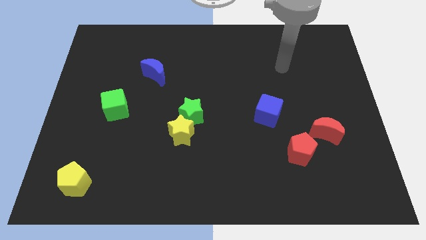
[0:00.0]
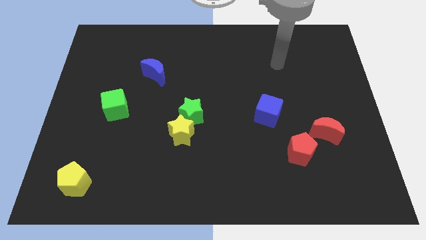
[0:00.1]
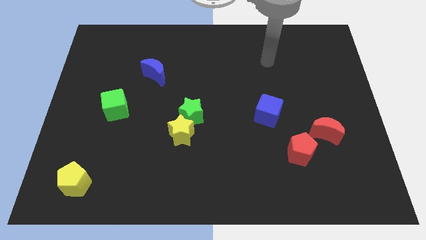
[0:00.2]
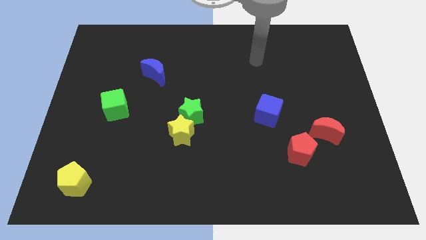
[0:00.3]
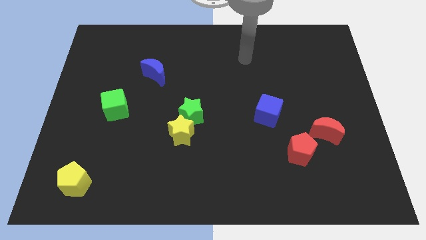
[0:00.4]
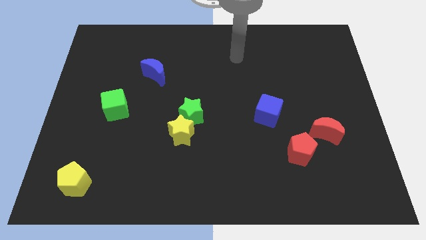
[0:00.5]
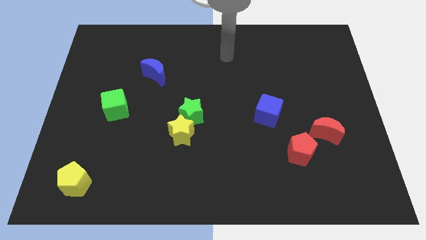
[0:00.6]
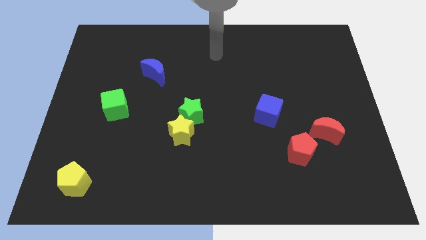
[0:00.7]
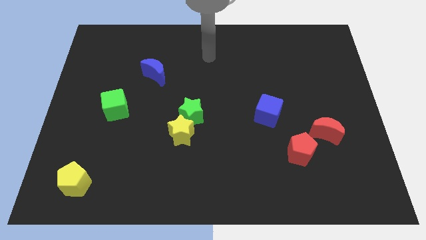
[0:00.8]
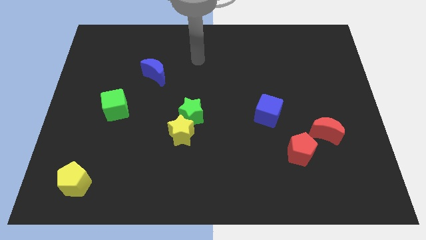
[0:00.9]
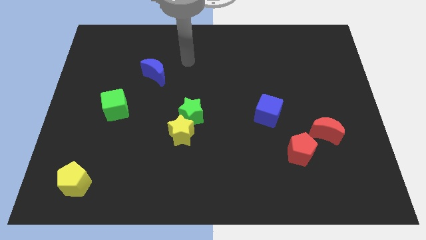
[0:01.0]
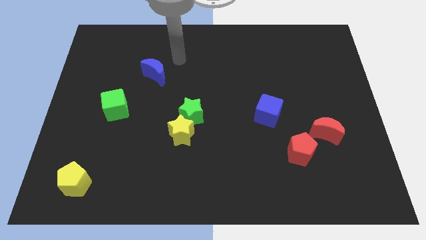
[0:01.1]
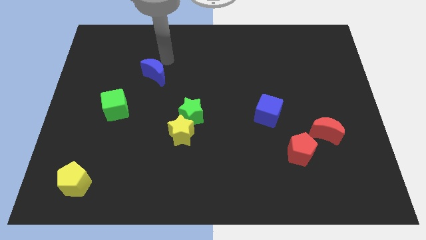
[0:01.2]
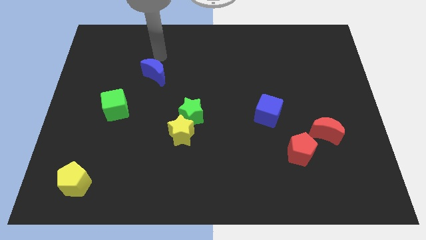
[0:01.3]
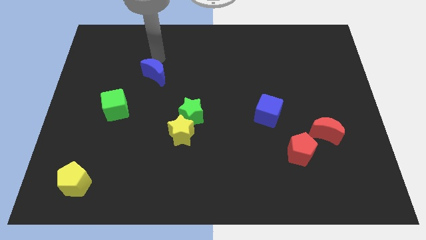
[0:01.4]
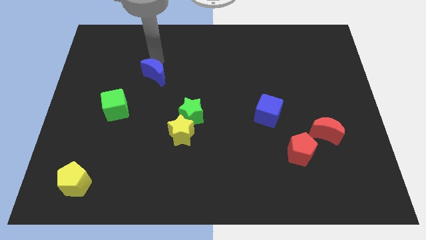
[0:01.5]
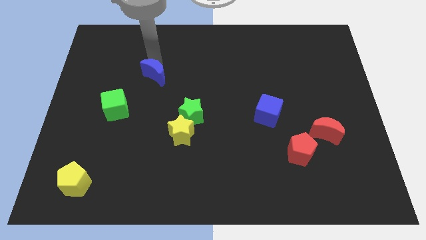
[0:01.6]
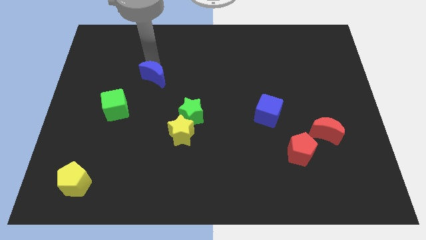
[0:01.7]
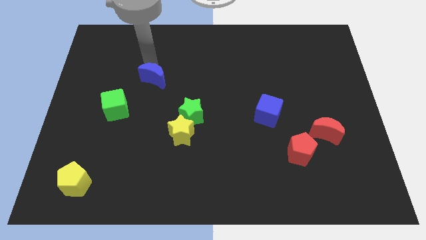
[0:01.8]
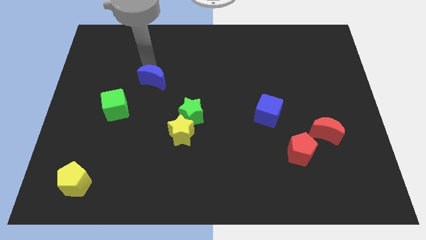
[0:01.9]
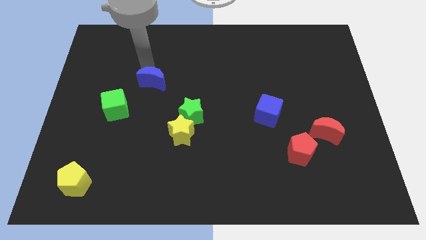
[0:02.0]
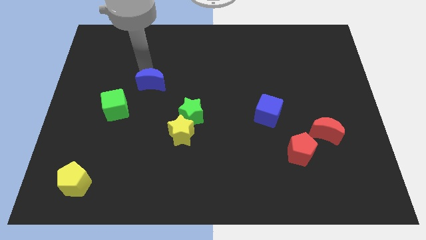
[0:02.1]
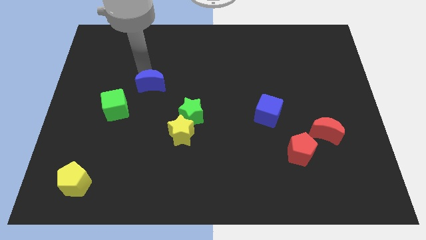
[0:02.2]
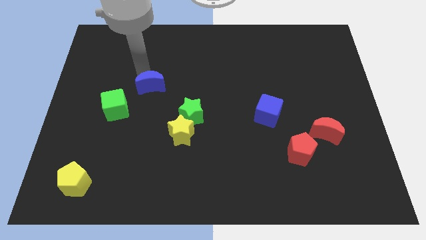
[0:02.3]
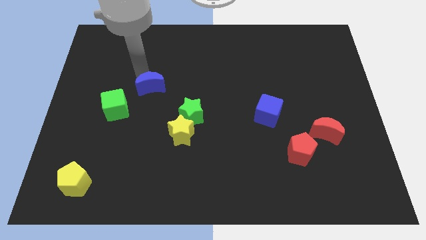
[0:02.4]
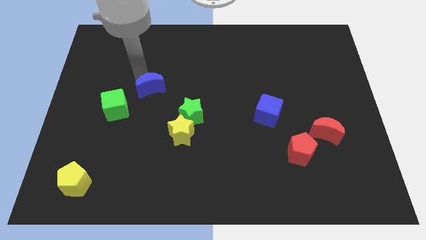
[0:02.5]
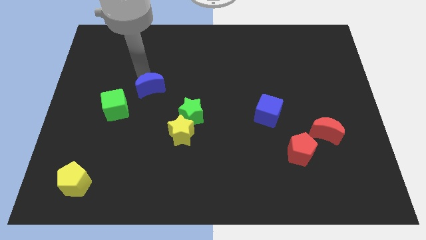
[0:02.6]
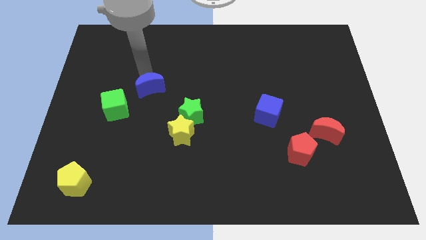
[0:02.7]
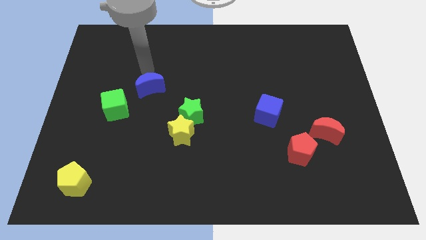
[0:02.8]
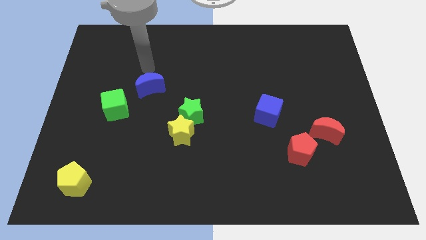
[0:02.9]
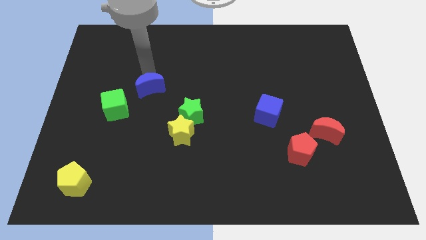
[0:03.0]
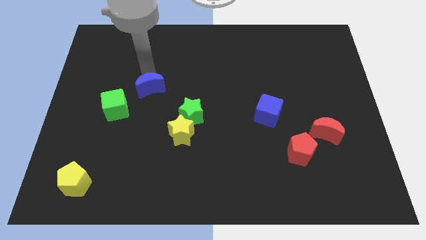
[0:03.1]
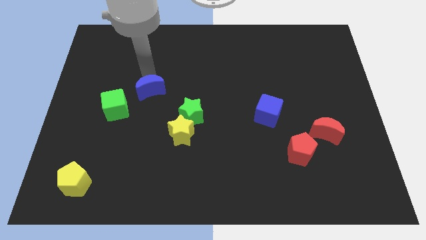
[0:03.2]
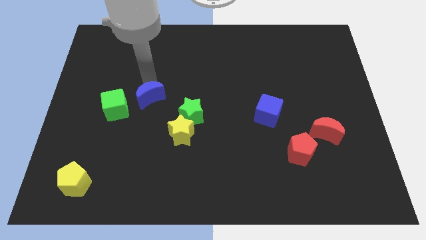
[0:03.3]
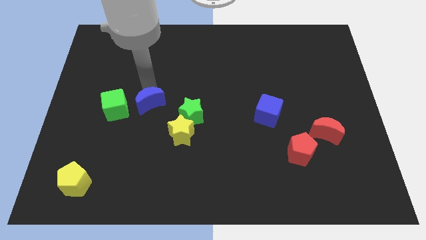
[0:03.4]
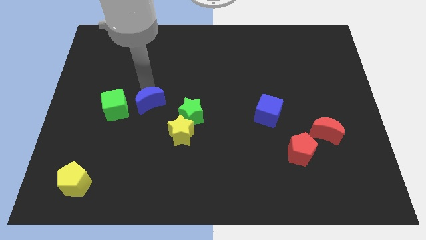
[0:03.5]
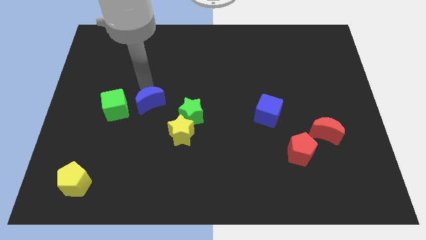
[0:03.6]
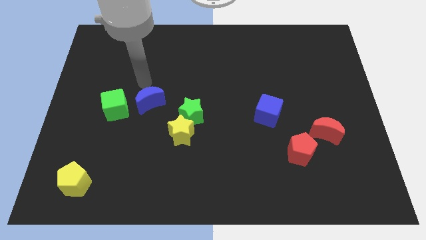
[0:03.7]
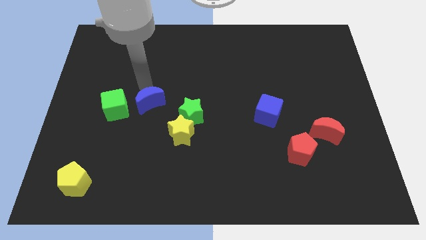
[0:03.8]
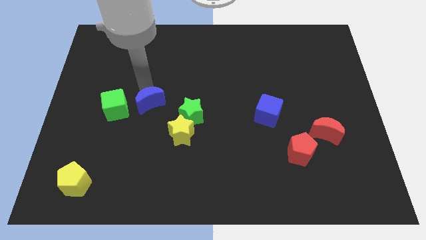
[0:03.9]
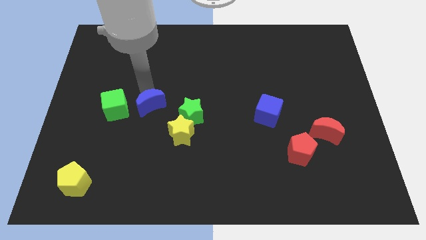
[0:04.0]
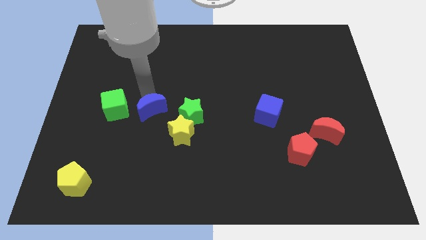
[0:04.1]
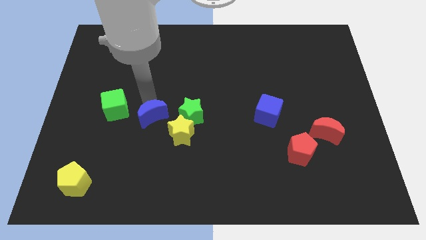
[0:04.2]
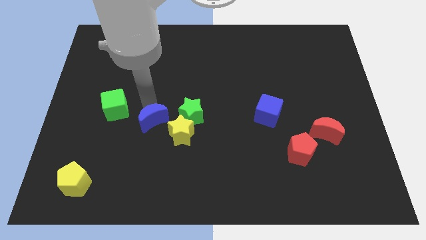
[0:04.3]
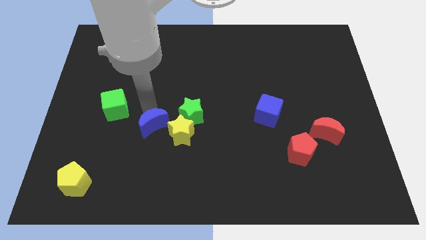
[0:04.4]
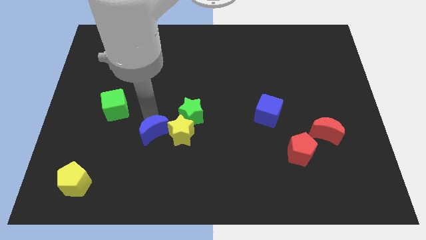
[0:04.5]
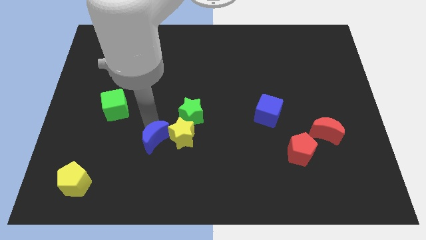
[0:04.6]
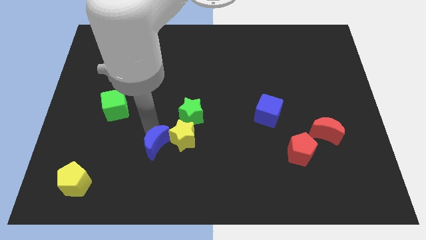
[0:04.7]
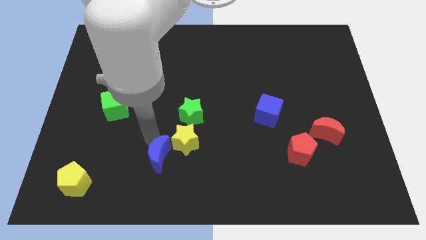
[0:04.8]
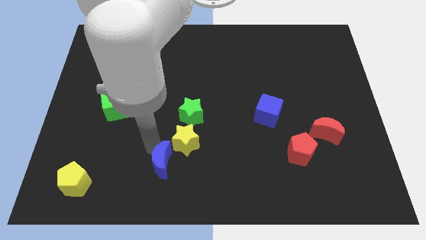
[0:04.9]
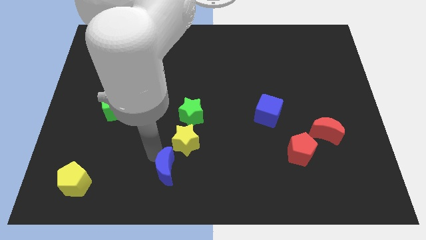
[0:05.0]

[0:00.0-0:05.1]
push the blue moon to the bottom

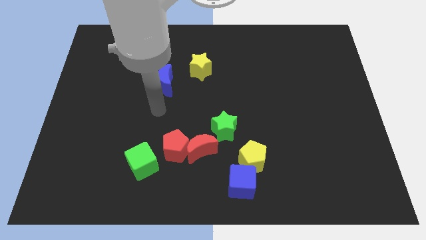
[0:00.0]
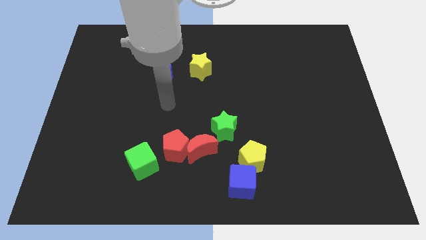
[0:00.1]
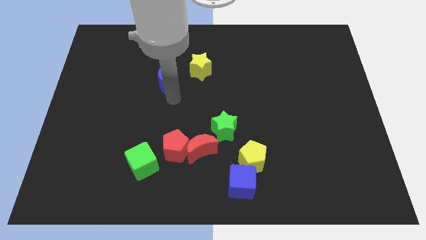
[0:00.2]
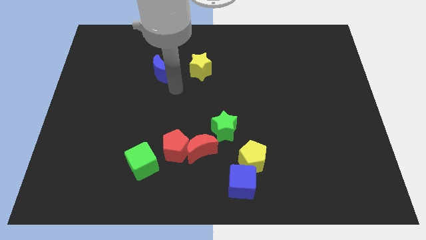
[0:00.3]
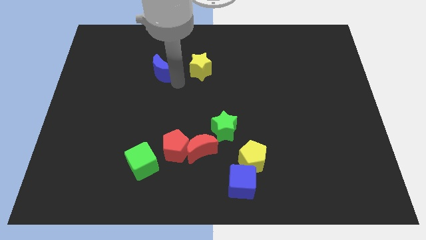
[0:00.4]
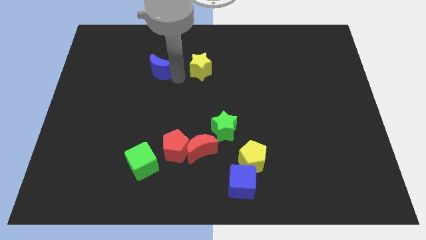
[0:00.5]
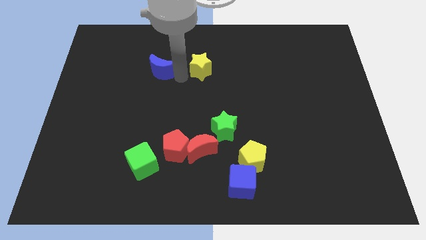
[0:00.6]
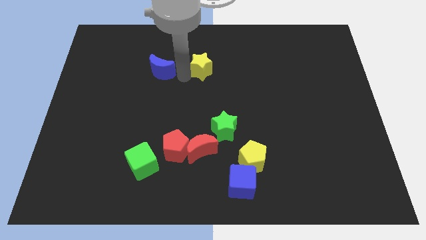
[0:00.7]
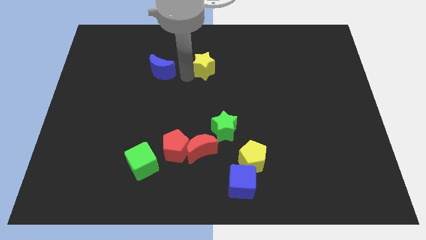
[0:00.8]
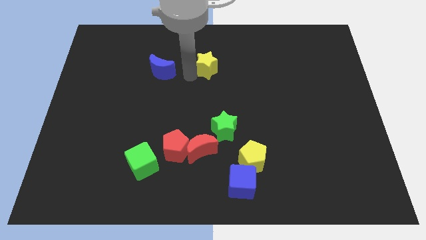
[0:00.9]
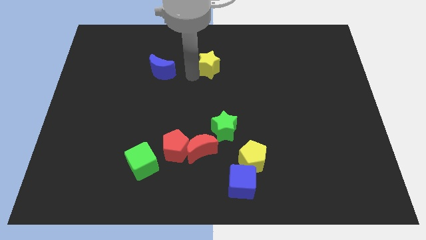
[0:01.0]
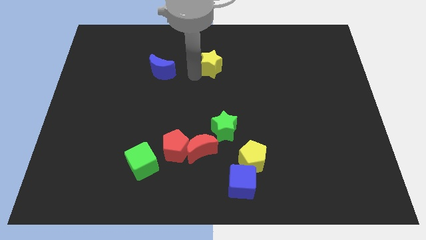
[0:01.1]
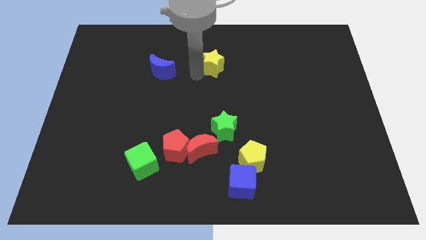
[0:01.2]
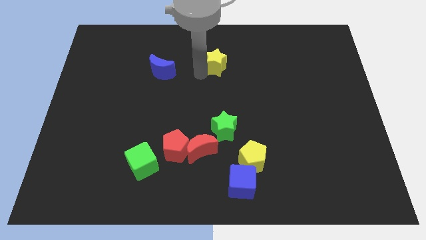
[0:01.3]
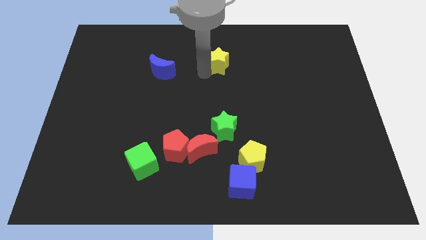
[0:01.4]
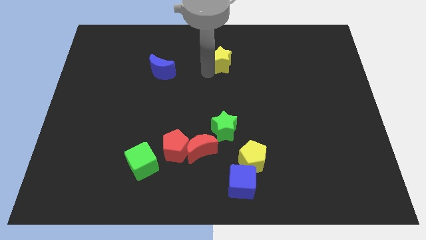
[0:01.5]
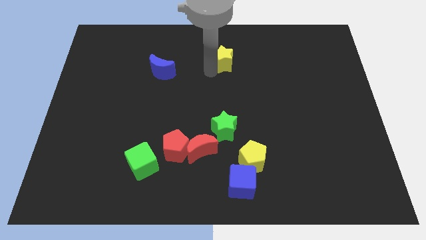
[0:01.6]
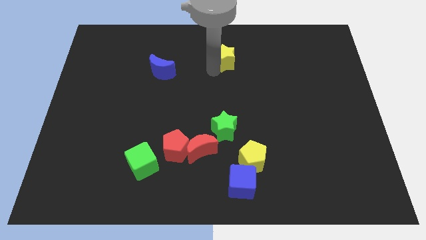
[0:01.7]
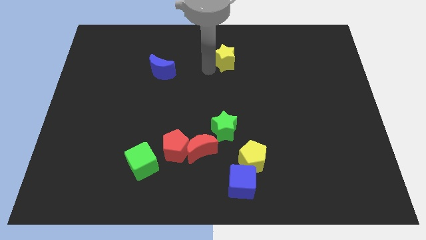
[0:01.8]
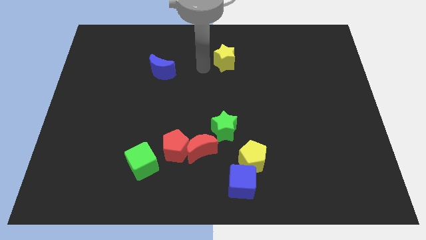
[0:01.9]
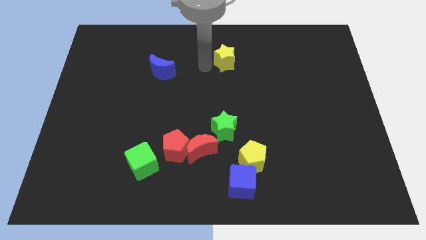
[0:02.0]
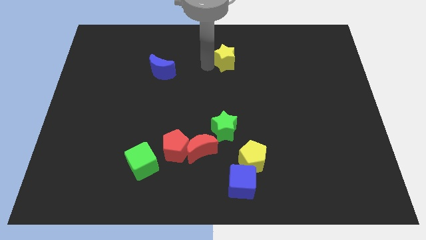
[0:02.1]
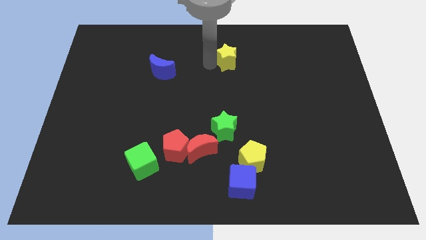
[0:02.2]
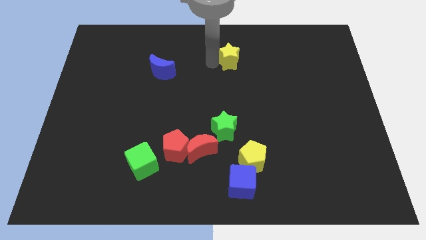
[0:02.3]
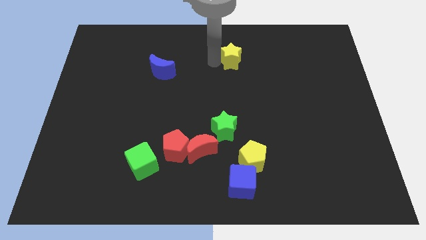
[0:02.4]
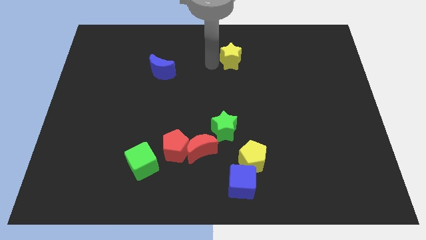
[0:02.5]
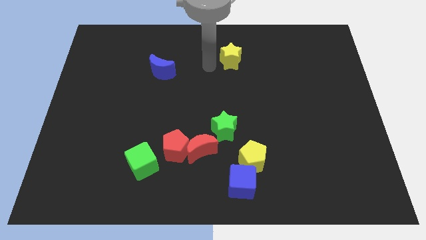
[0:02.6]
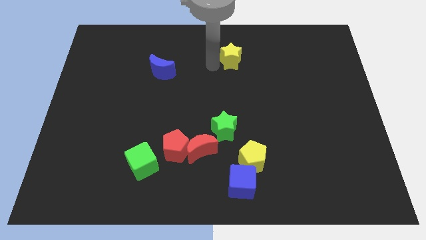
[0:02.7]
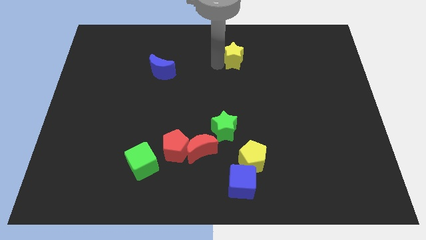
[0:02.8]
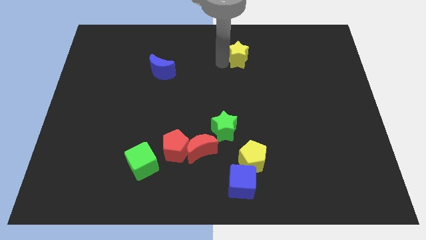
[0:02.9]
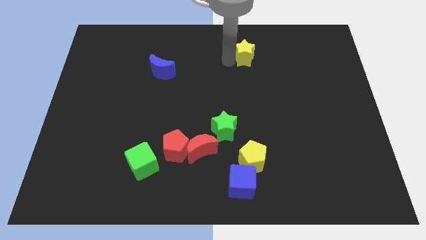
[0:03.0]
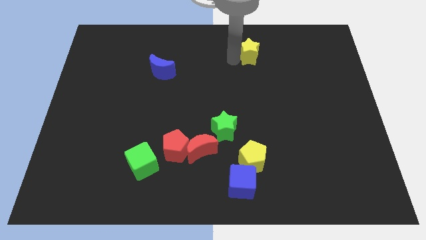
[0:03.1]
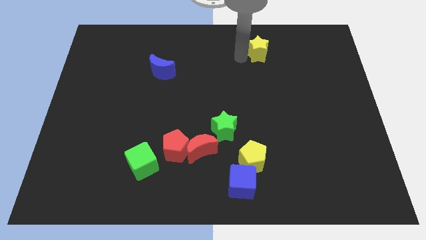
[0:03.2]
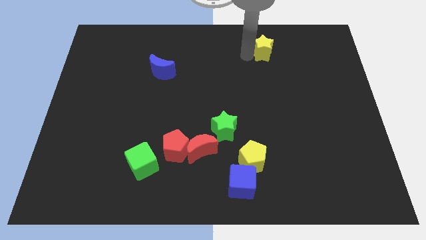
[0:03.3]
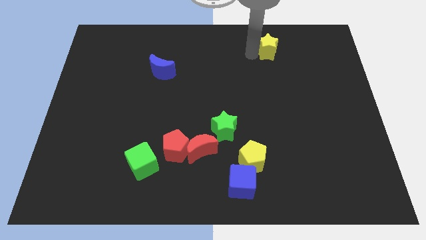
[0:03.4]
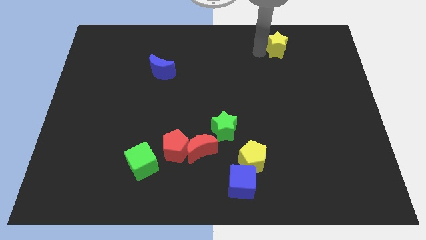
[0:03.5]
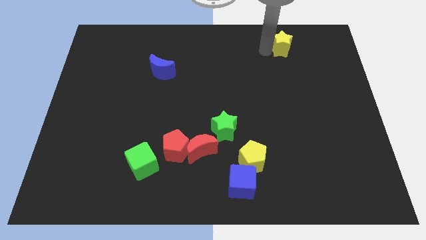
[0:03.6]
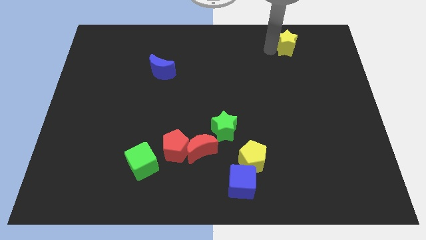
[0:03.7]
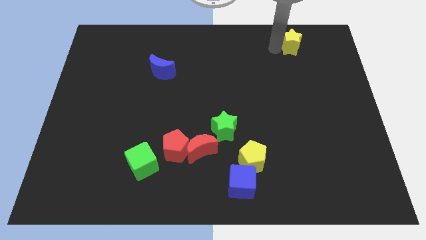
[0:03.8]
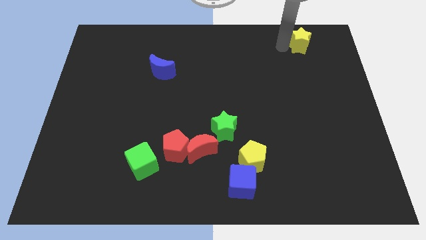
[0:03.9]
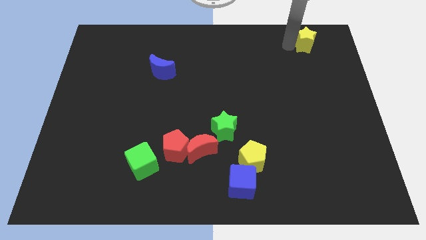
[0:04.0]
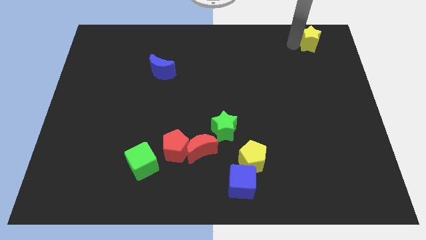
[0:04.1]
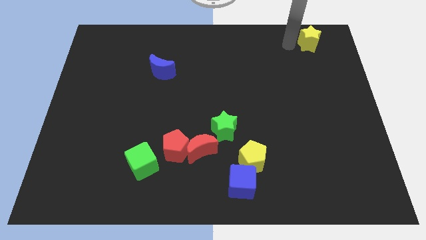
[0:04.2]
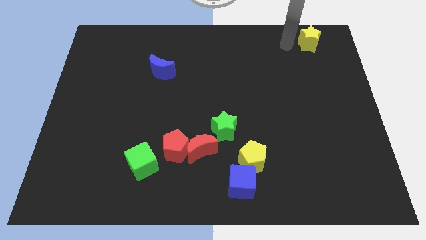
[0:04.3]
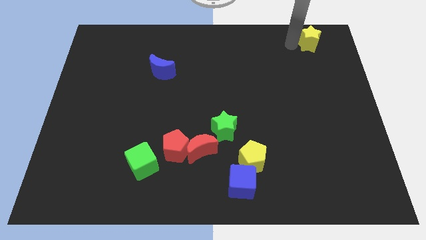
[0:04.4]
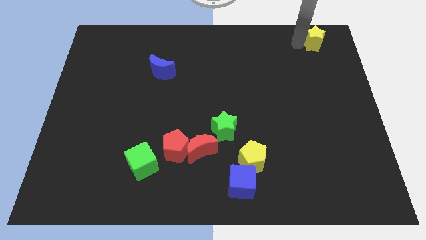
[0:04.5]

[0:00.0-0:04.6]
slide the yellow star to the top right
